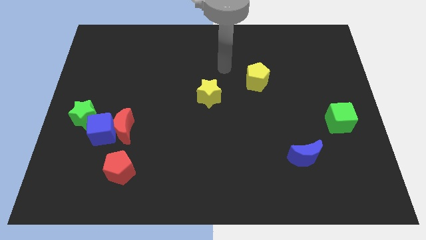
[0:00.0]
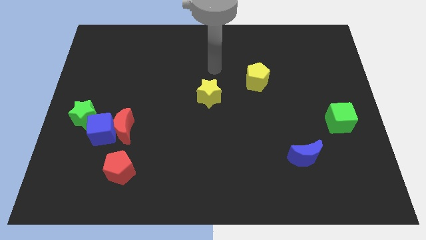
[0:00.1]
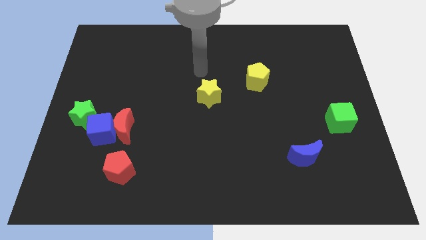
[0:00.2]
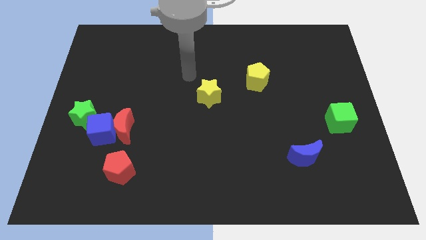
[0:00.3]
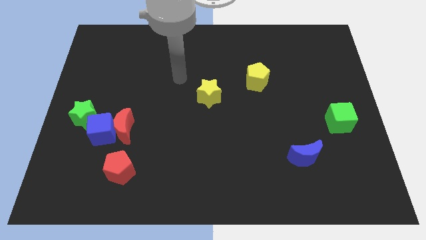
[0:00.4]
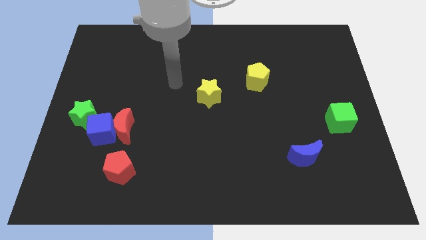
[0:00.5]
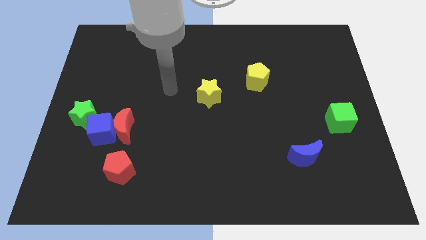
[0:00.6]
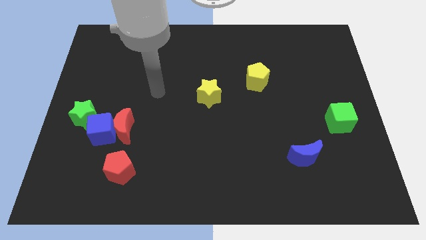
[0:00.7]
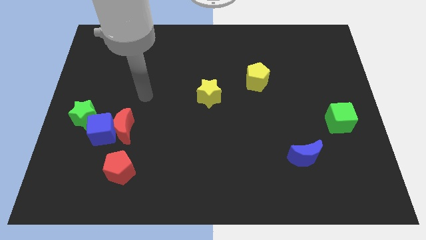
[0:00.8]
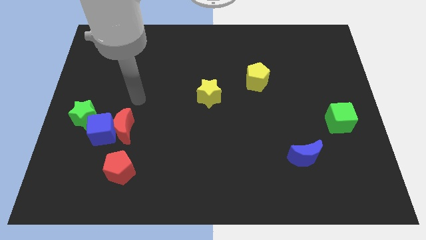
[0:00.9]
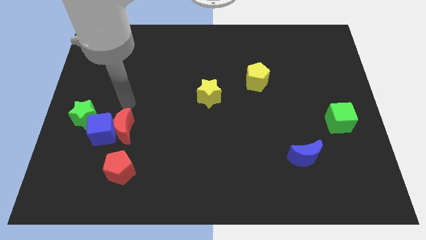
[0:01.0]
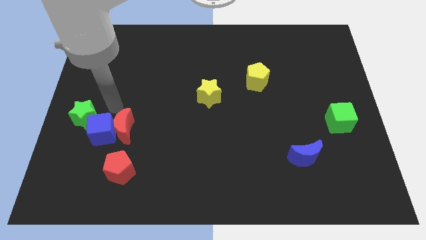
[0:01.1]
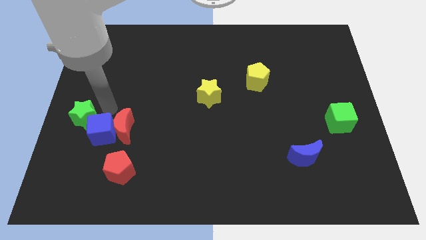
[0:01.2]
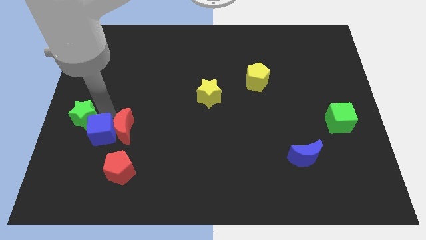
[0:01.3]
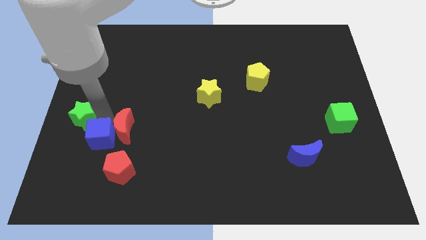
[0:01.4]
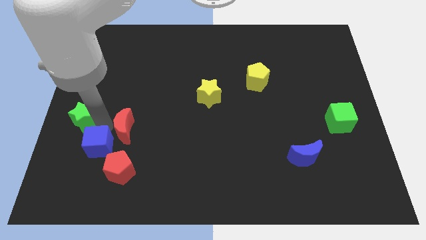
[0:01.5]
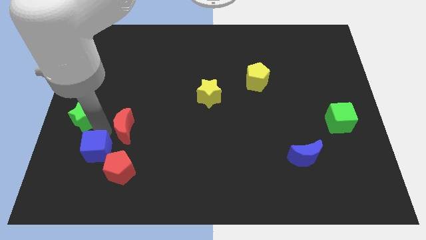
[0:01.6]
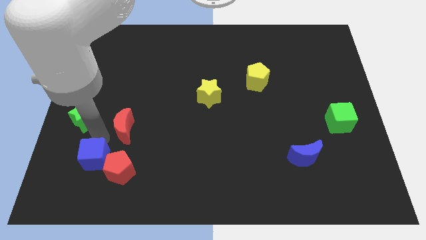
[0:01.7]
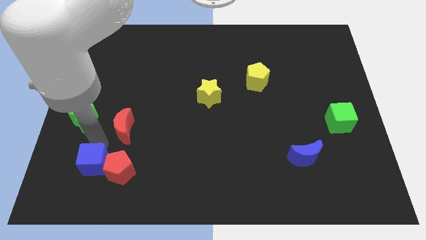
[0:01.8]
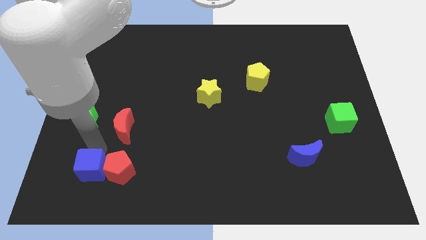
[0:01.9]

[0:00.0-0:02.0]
move the blue cube away from the red moon and green star

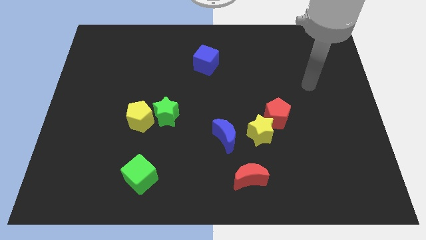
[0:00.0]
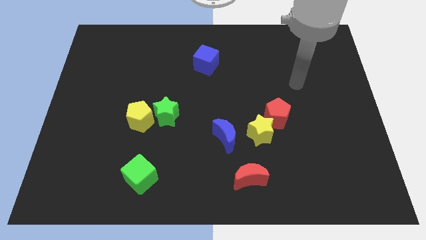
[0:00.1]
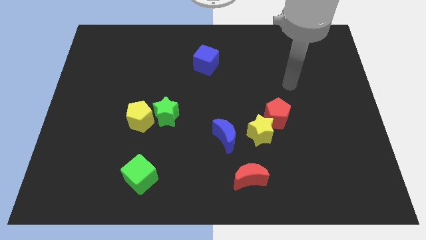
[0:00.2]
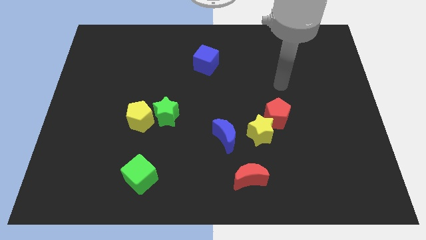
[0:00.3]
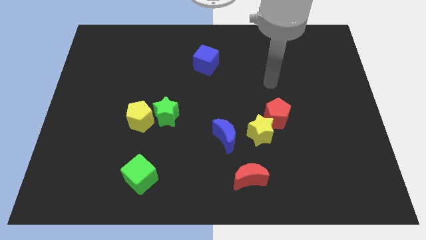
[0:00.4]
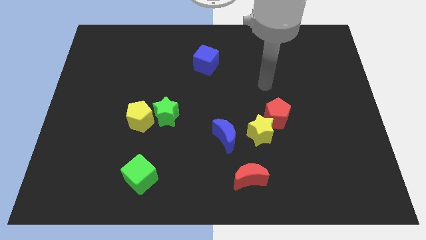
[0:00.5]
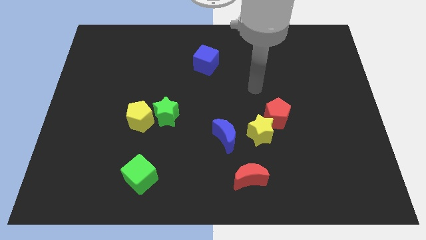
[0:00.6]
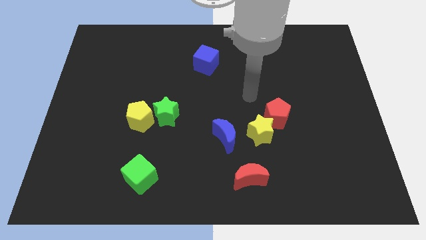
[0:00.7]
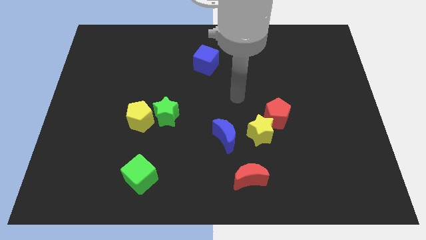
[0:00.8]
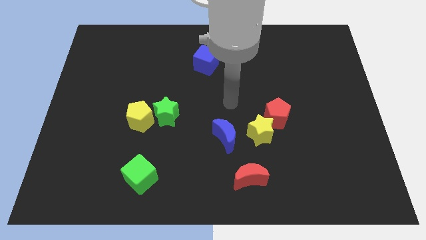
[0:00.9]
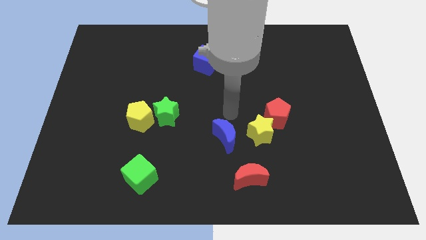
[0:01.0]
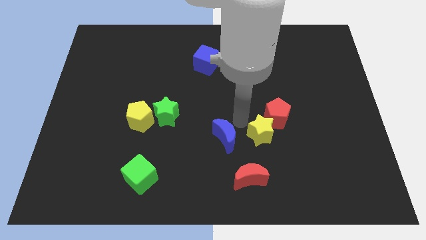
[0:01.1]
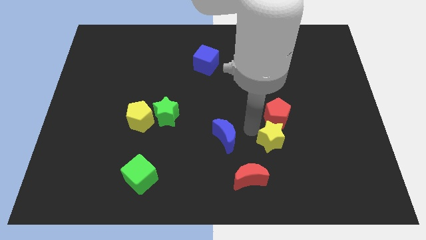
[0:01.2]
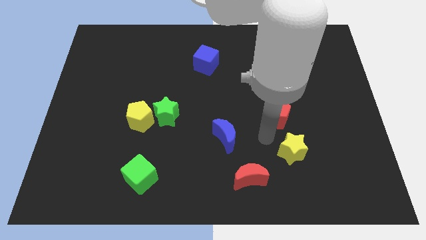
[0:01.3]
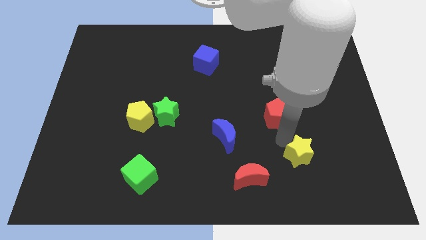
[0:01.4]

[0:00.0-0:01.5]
pull the red pentagon apart from the yellow star

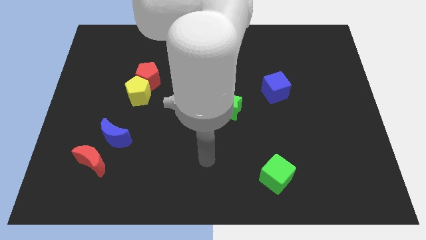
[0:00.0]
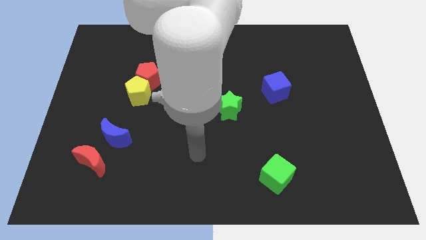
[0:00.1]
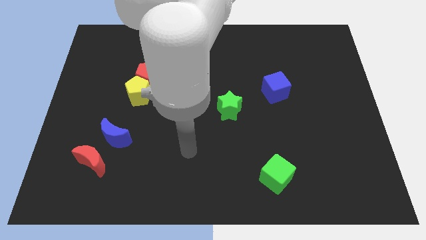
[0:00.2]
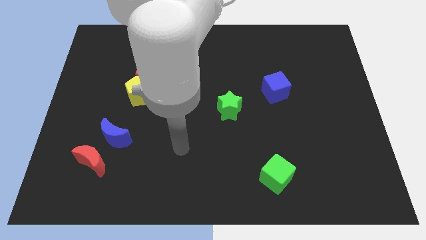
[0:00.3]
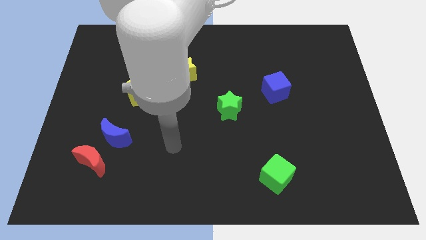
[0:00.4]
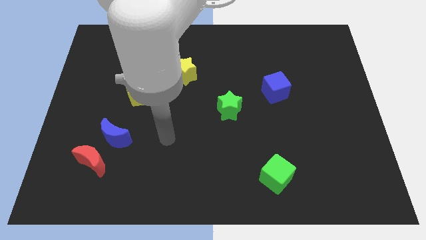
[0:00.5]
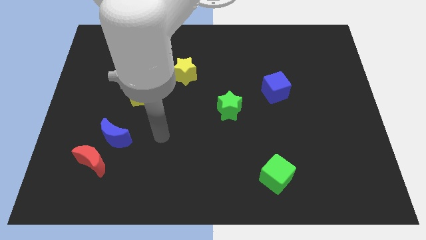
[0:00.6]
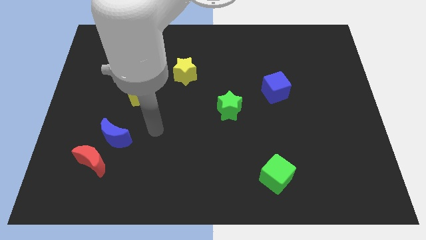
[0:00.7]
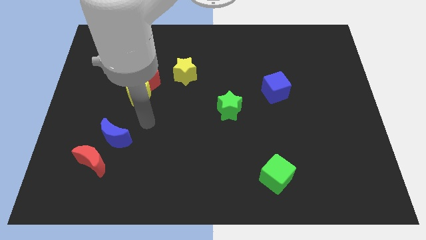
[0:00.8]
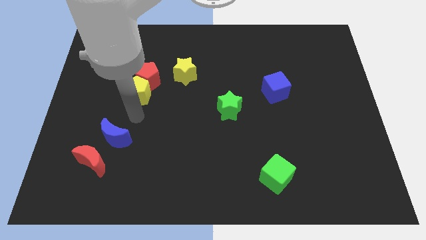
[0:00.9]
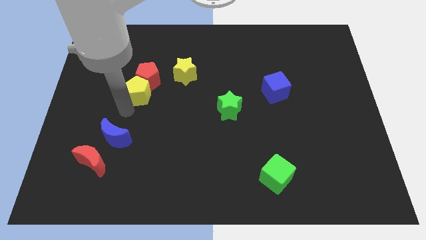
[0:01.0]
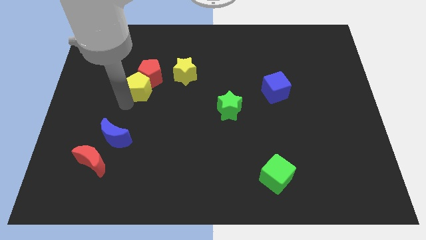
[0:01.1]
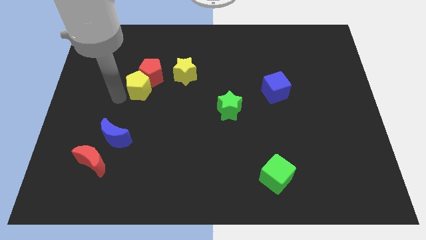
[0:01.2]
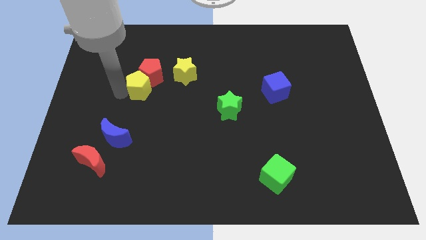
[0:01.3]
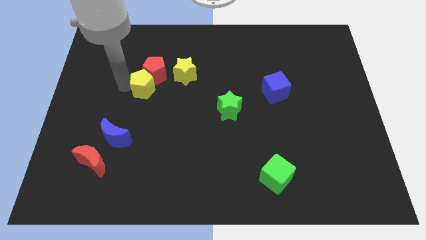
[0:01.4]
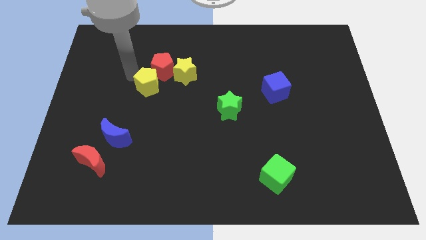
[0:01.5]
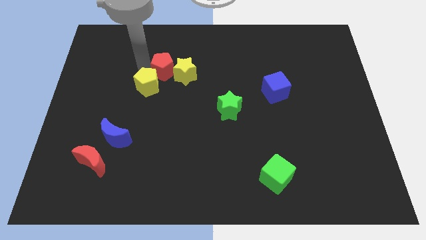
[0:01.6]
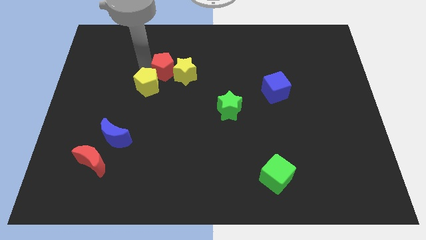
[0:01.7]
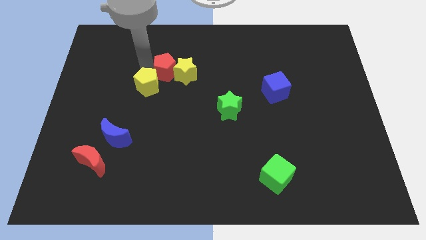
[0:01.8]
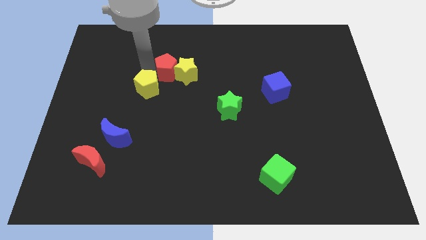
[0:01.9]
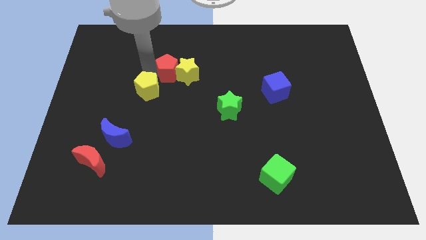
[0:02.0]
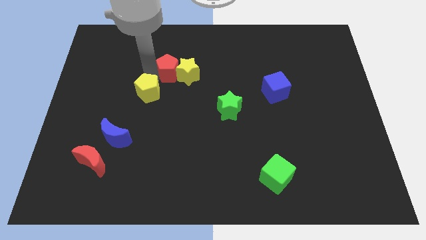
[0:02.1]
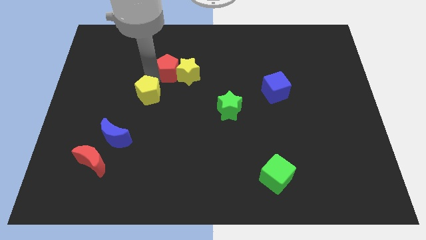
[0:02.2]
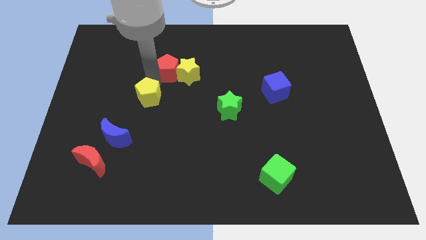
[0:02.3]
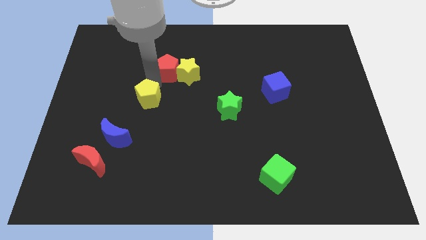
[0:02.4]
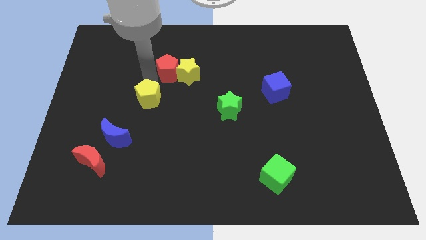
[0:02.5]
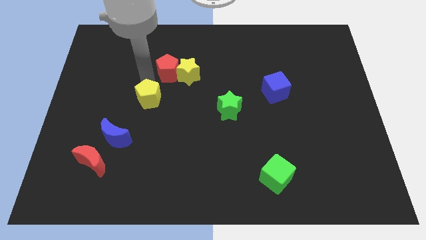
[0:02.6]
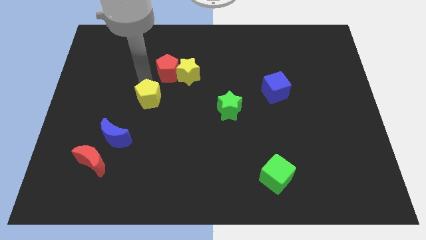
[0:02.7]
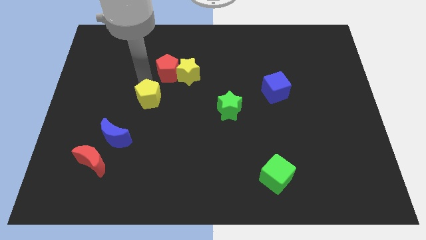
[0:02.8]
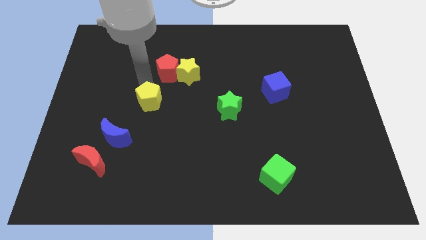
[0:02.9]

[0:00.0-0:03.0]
move the yellow pentagon away from the red pentagon

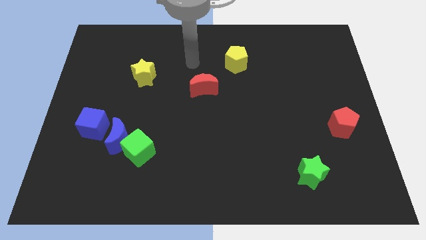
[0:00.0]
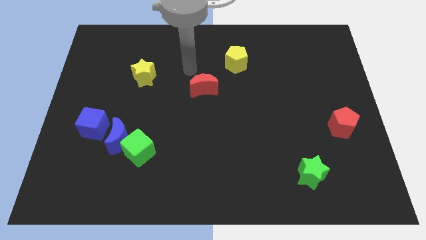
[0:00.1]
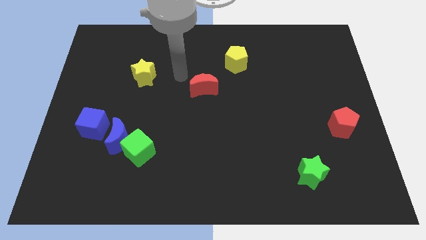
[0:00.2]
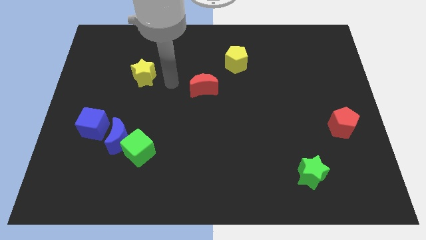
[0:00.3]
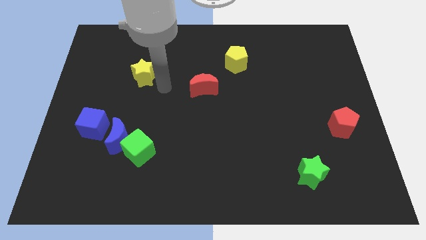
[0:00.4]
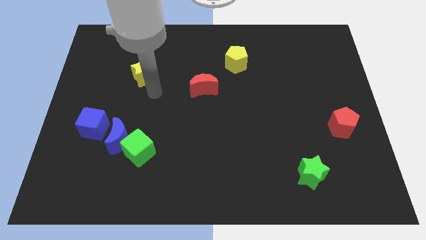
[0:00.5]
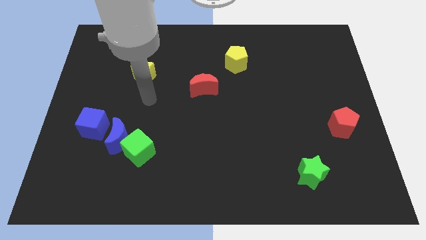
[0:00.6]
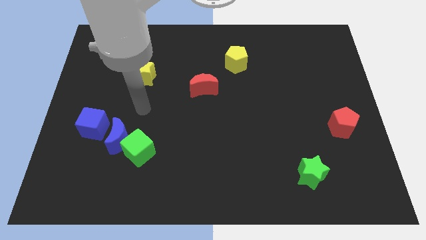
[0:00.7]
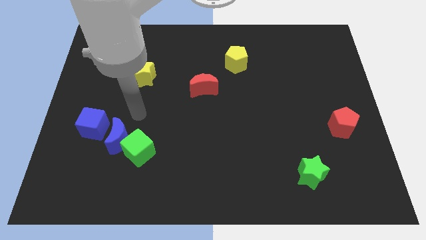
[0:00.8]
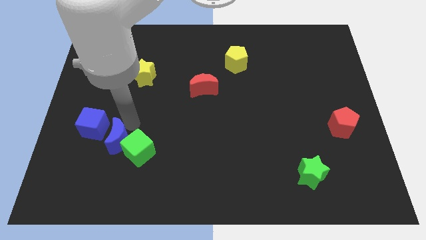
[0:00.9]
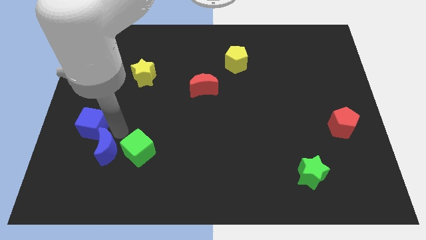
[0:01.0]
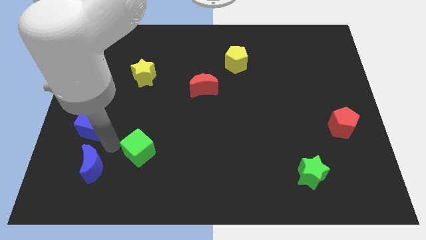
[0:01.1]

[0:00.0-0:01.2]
pull the green cube apart from the blue moon

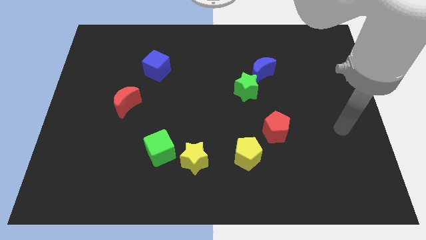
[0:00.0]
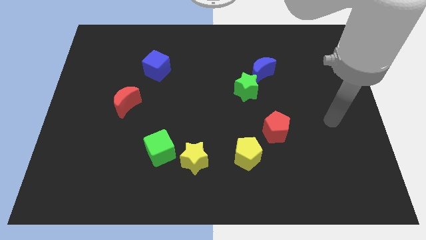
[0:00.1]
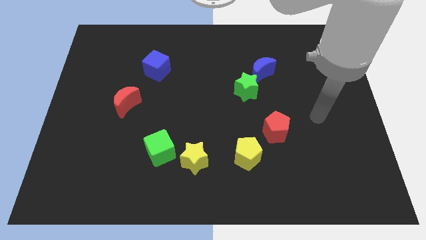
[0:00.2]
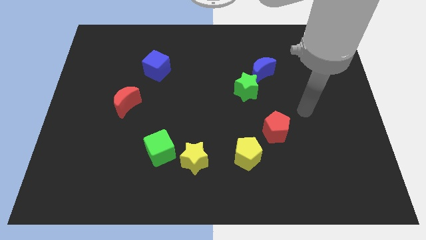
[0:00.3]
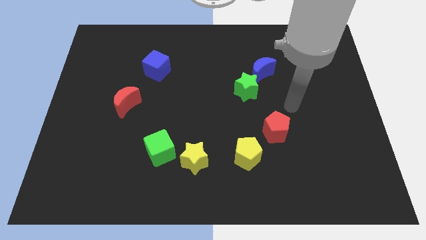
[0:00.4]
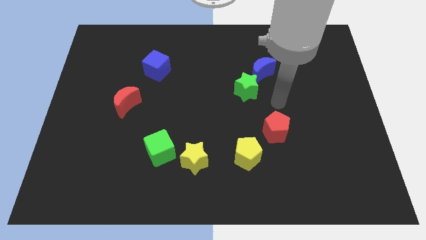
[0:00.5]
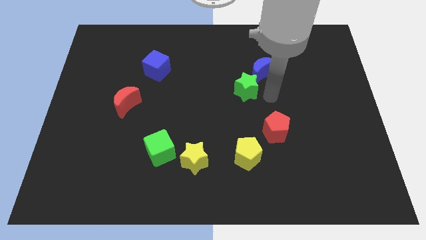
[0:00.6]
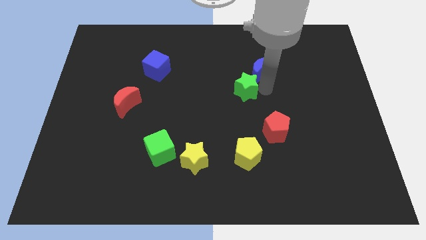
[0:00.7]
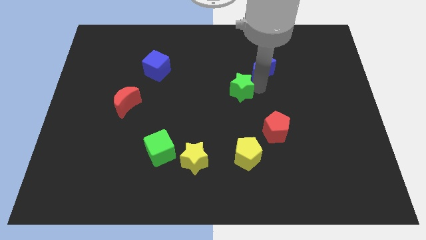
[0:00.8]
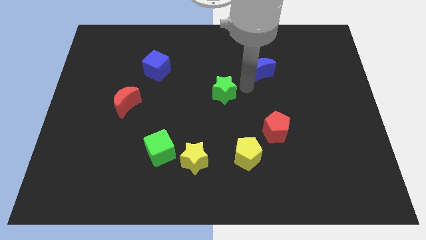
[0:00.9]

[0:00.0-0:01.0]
move the blue moon away from the green star

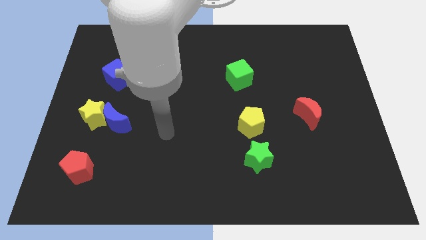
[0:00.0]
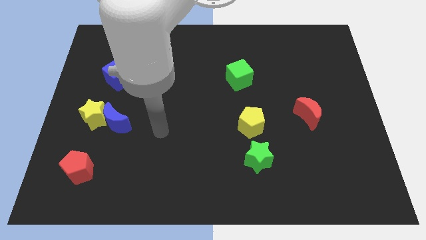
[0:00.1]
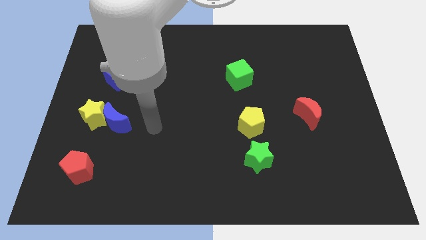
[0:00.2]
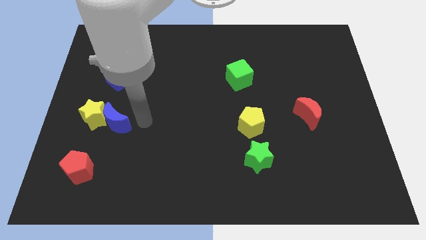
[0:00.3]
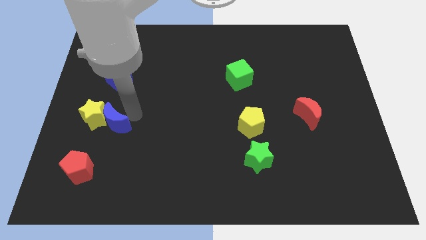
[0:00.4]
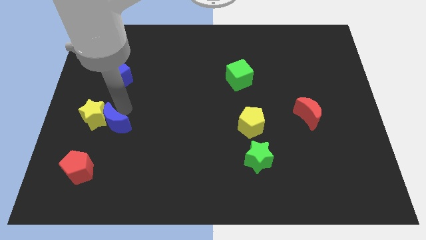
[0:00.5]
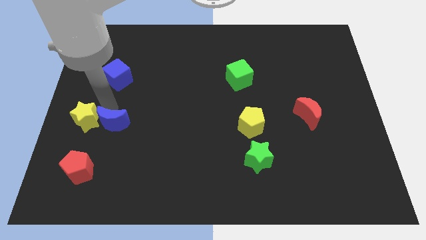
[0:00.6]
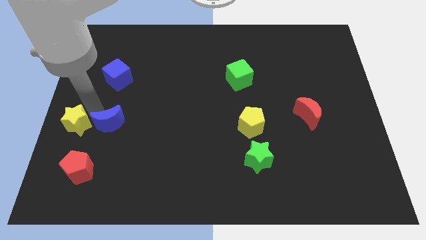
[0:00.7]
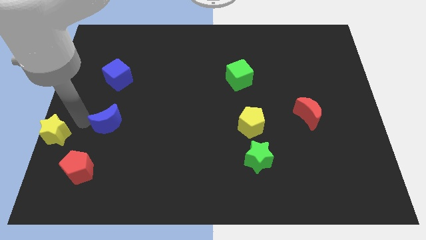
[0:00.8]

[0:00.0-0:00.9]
separate the blue moon from the yellow star
